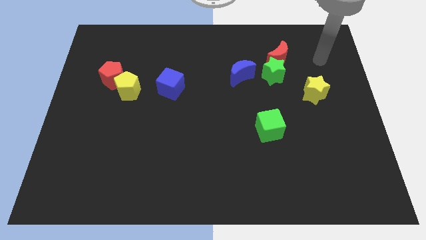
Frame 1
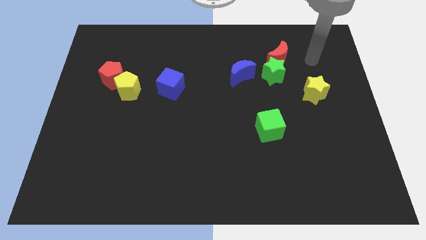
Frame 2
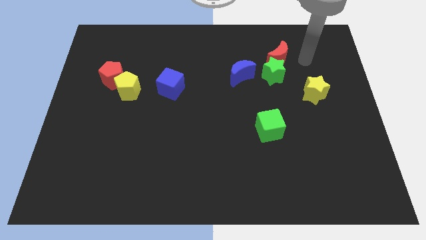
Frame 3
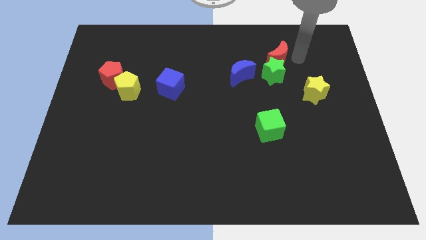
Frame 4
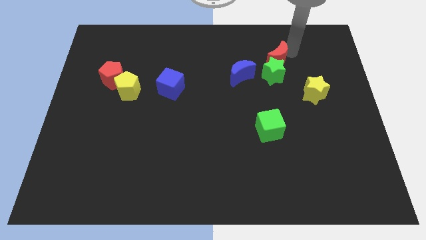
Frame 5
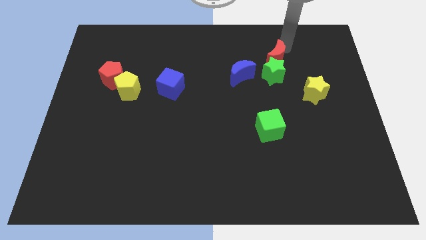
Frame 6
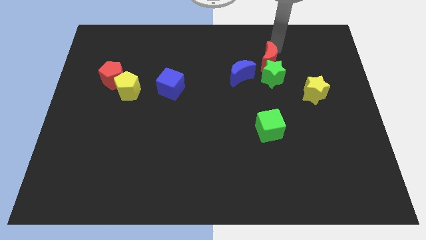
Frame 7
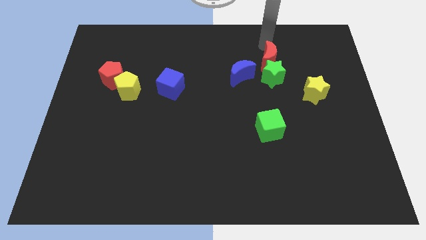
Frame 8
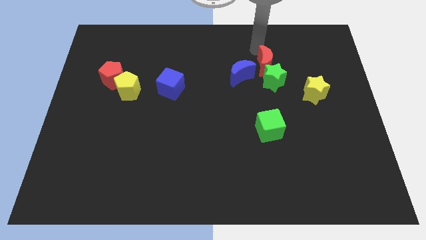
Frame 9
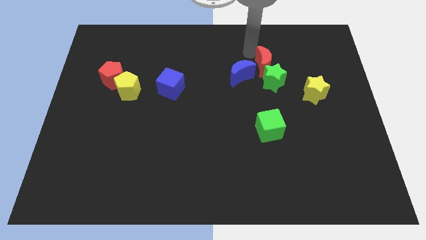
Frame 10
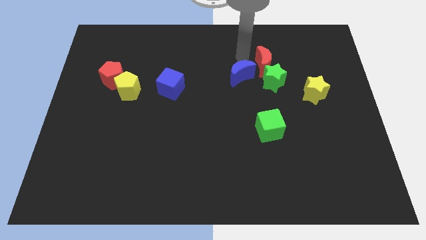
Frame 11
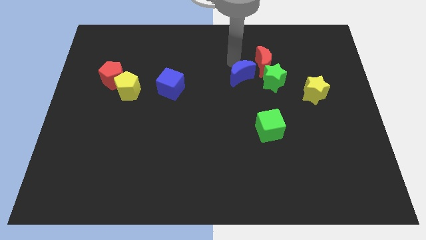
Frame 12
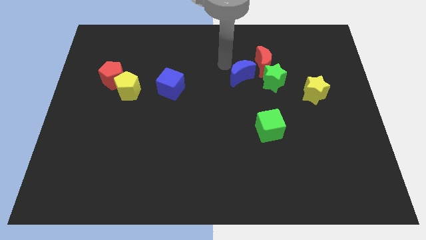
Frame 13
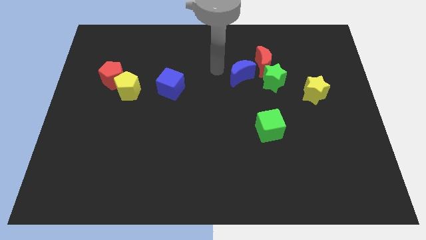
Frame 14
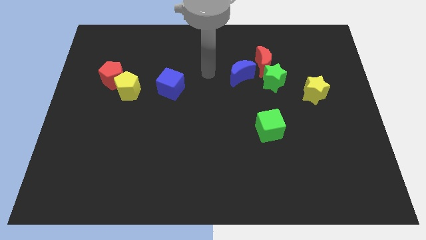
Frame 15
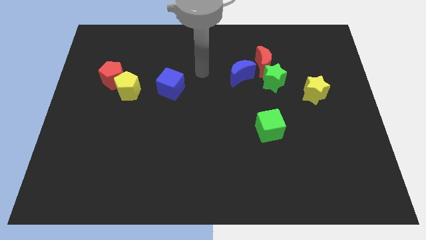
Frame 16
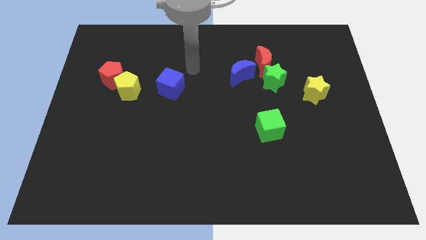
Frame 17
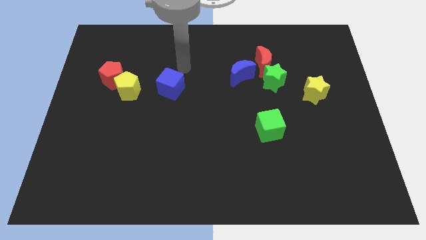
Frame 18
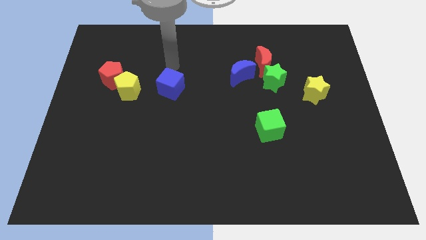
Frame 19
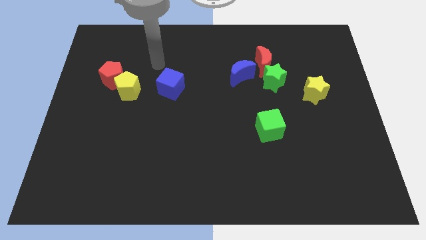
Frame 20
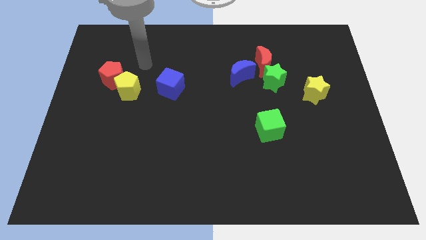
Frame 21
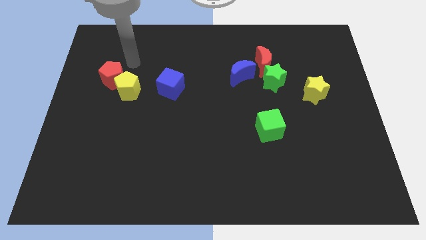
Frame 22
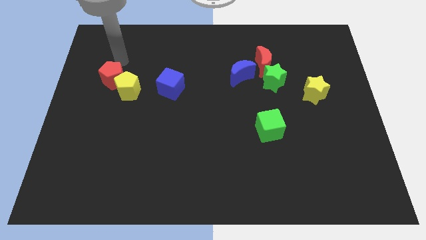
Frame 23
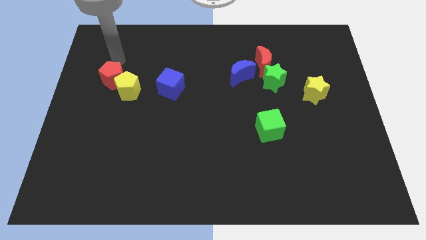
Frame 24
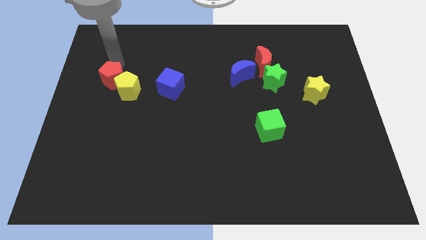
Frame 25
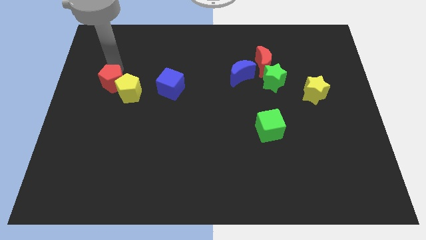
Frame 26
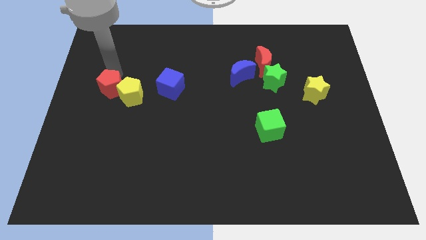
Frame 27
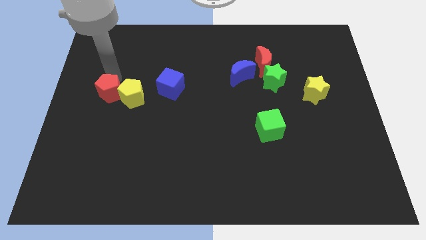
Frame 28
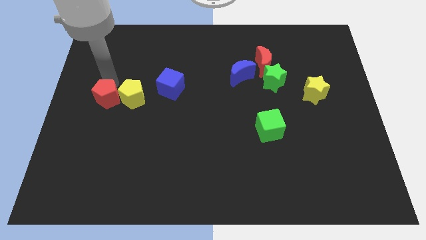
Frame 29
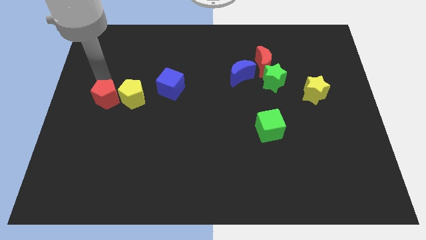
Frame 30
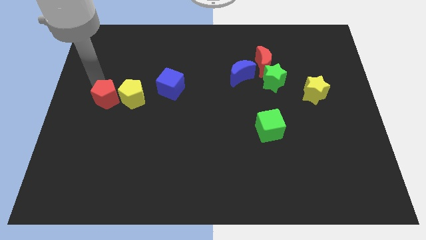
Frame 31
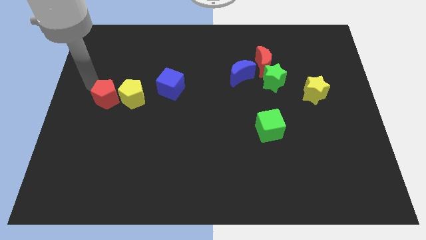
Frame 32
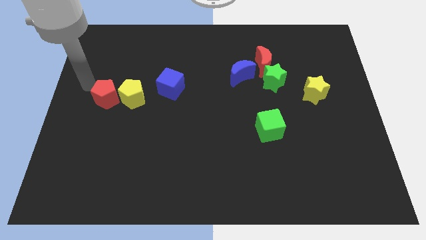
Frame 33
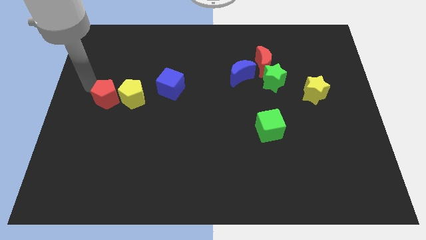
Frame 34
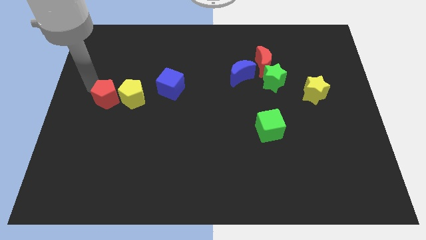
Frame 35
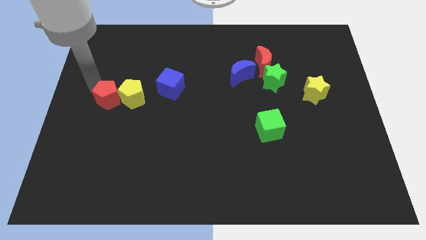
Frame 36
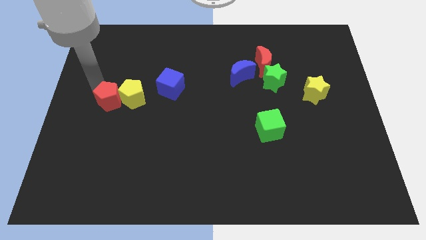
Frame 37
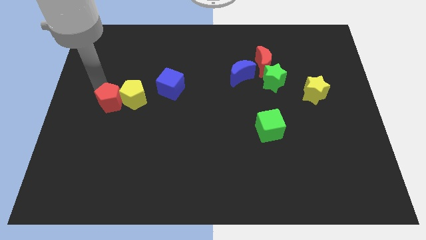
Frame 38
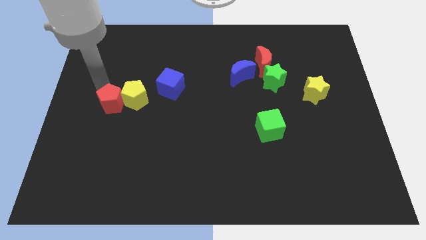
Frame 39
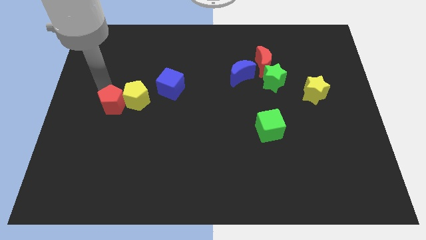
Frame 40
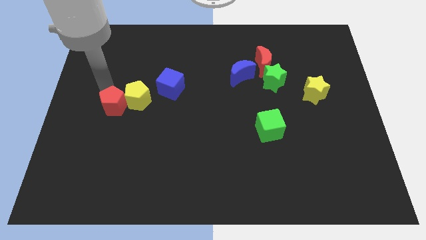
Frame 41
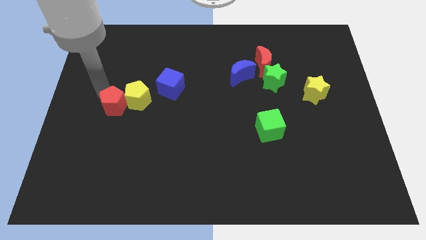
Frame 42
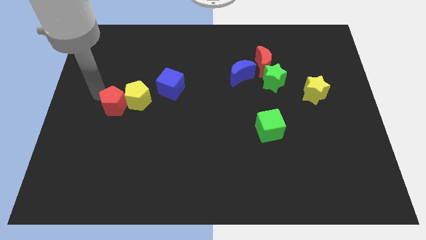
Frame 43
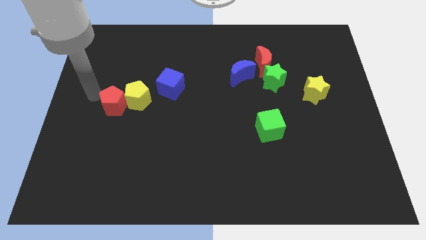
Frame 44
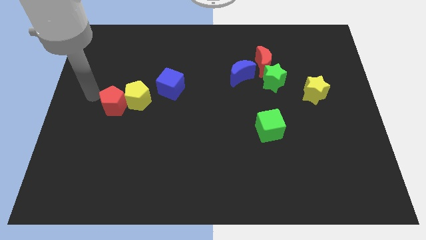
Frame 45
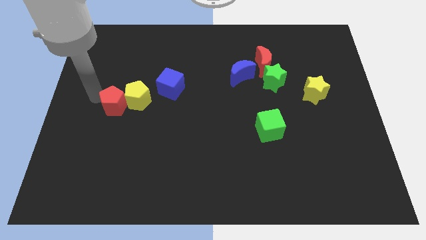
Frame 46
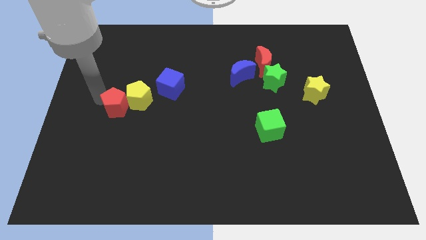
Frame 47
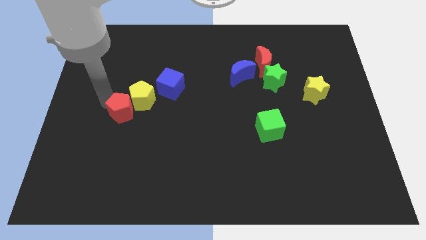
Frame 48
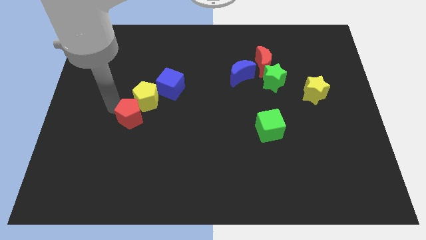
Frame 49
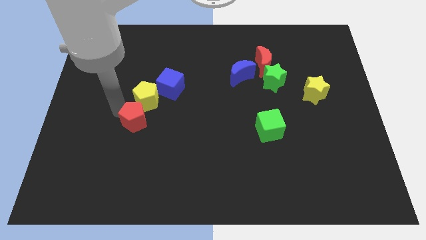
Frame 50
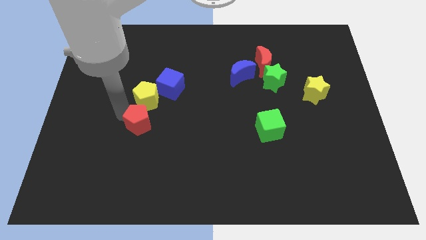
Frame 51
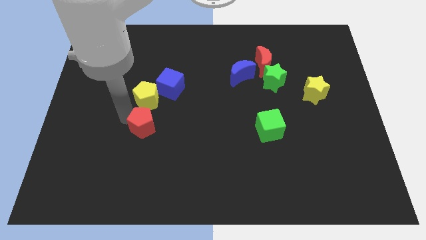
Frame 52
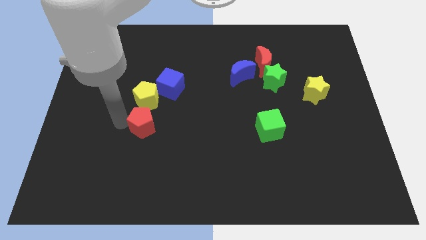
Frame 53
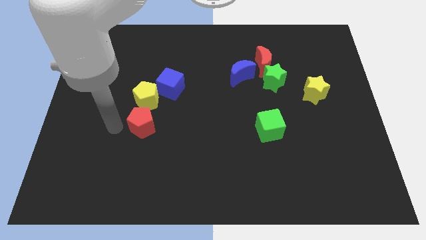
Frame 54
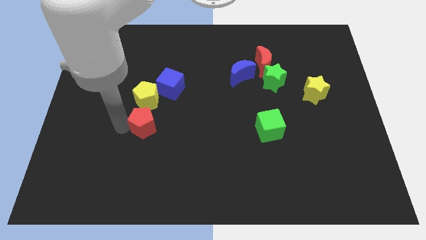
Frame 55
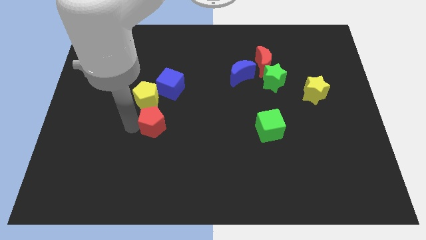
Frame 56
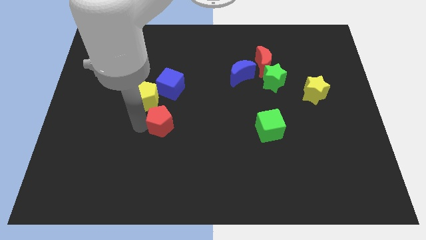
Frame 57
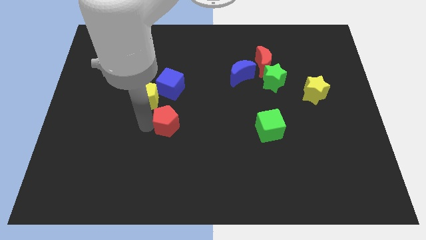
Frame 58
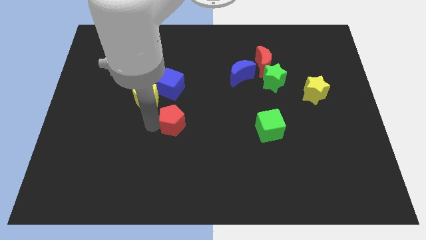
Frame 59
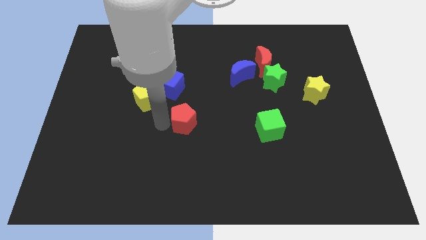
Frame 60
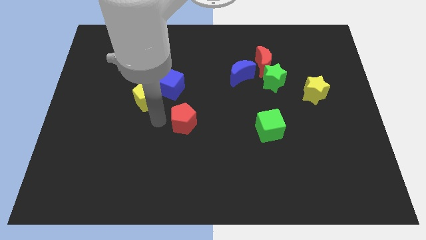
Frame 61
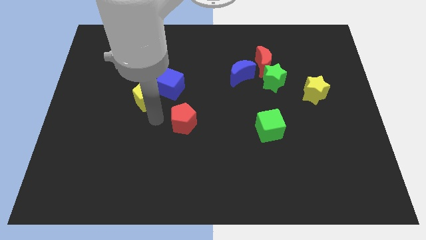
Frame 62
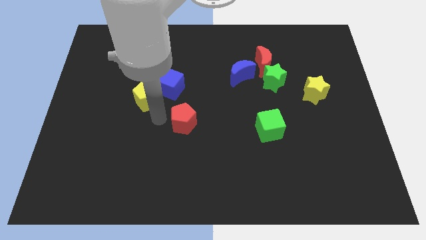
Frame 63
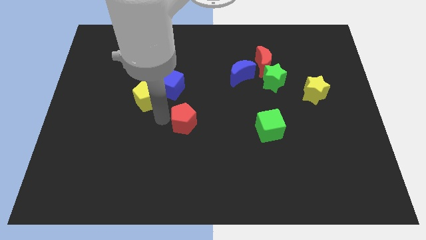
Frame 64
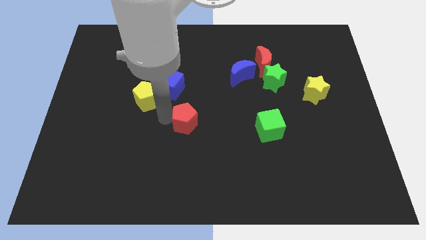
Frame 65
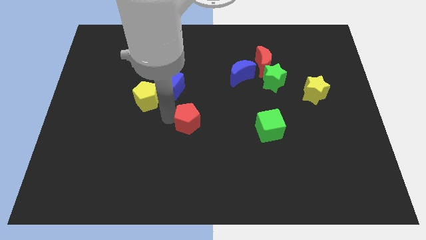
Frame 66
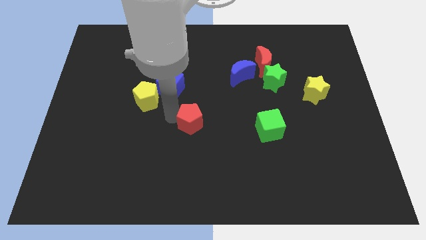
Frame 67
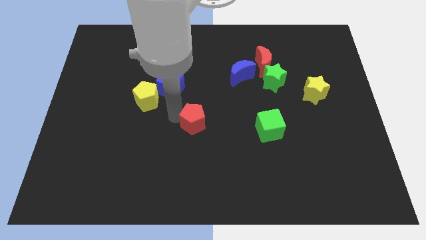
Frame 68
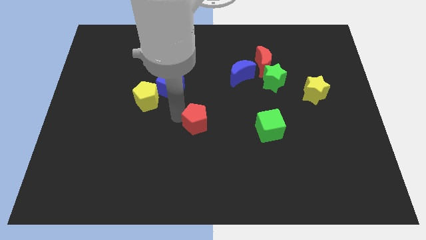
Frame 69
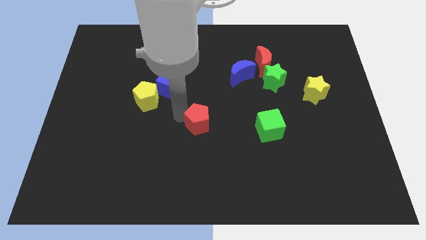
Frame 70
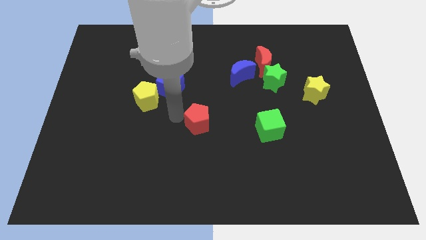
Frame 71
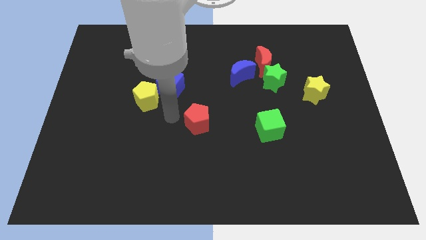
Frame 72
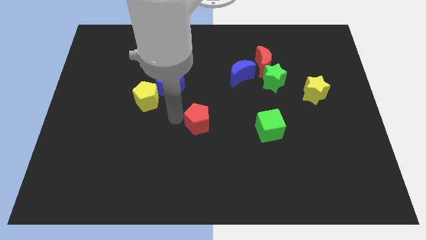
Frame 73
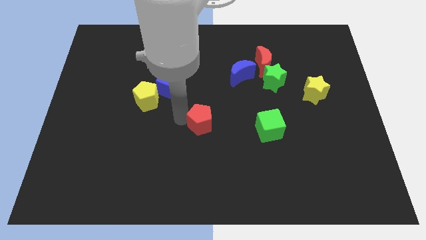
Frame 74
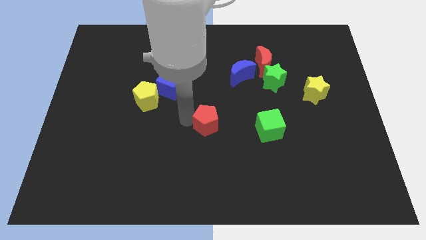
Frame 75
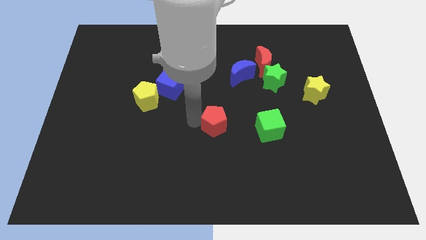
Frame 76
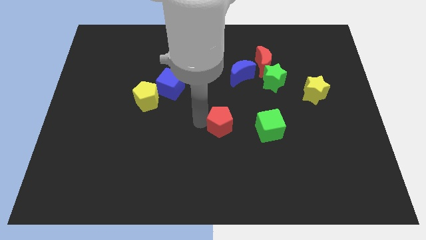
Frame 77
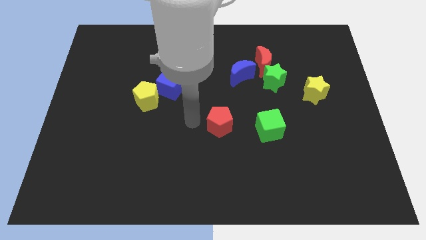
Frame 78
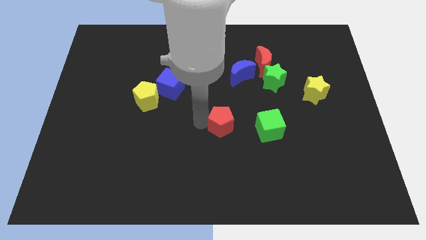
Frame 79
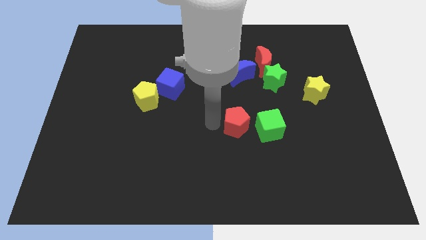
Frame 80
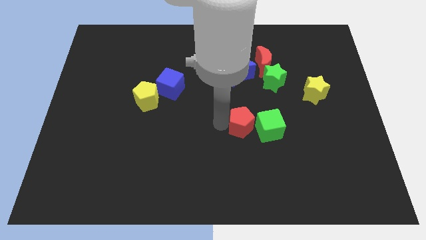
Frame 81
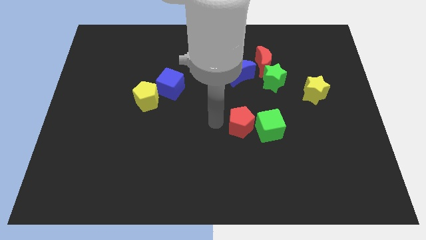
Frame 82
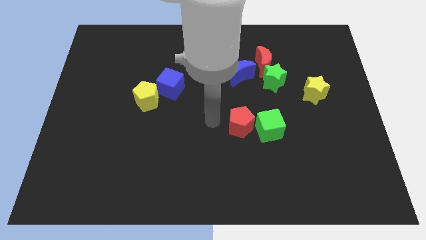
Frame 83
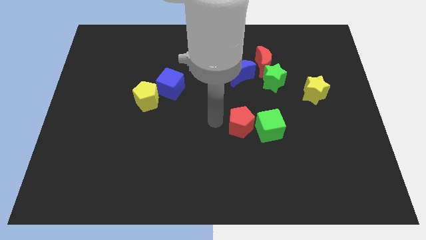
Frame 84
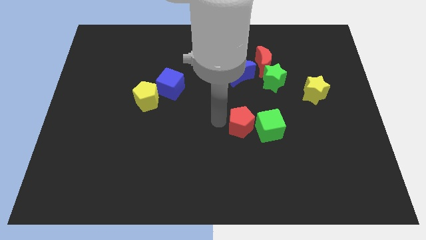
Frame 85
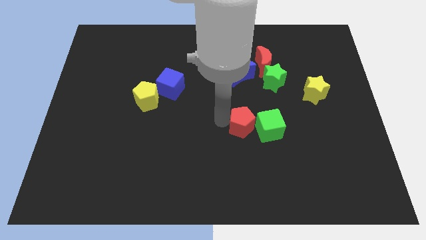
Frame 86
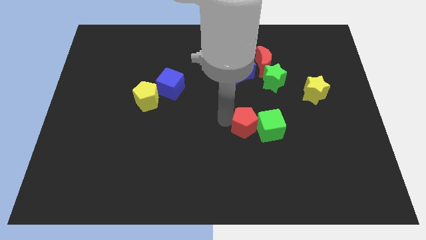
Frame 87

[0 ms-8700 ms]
slide the red pentagon to the green cube
